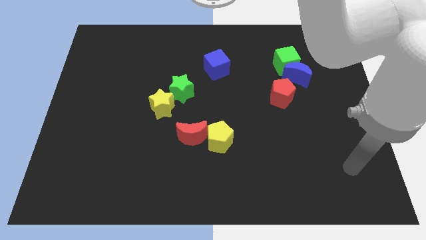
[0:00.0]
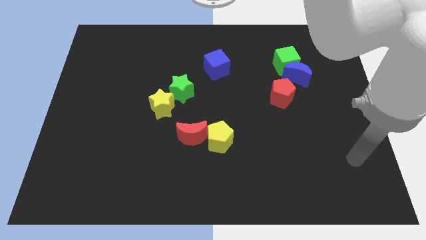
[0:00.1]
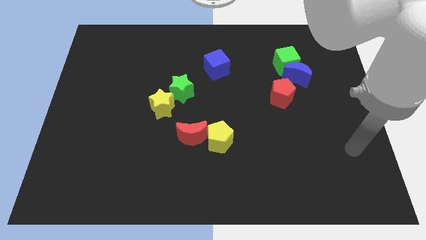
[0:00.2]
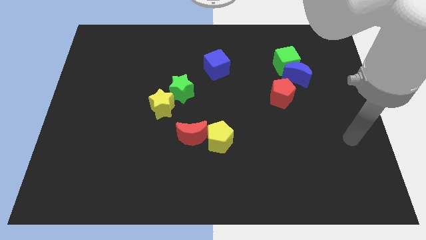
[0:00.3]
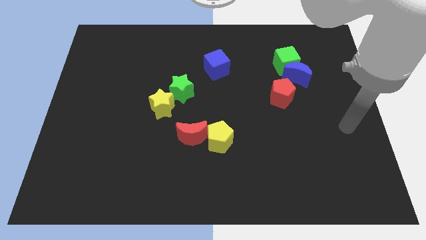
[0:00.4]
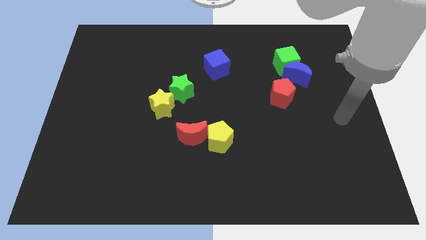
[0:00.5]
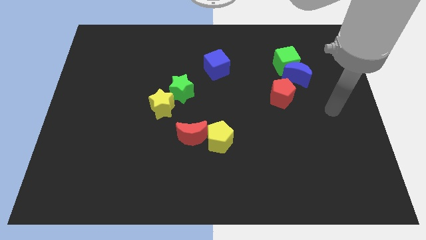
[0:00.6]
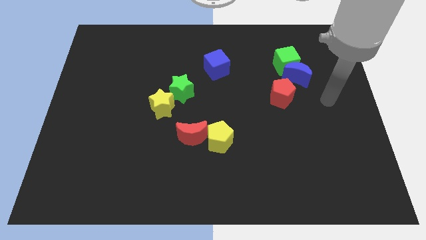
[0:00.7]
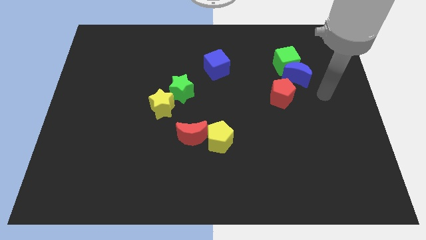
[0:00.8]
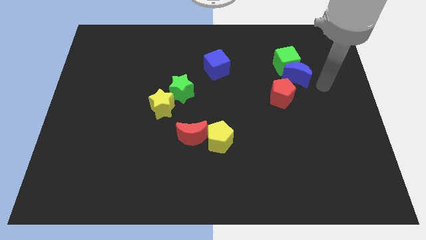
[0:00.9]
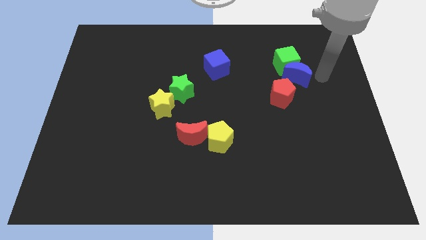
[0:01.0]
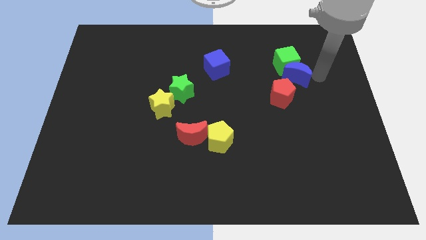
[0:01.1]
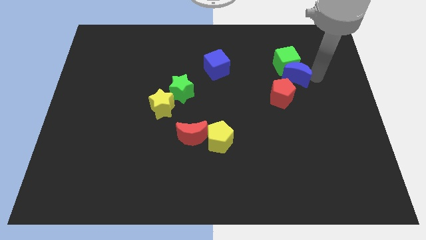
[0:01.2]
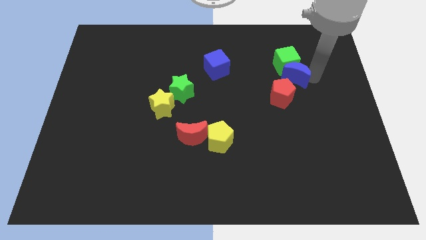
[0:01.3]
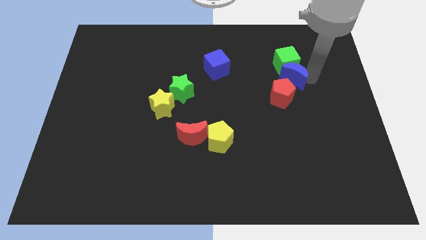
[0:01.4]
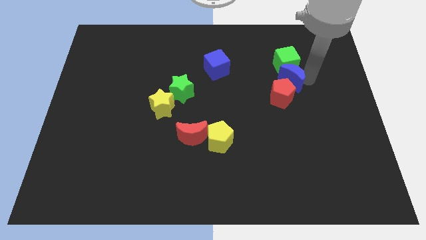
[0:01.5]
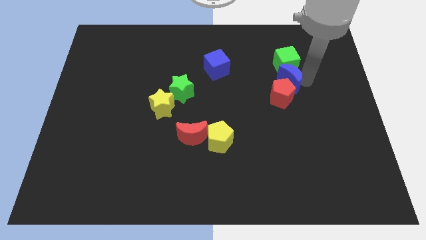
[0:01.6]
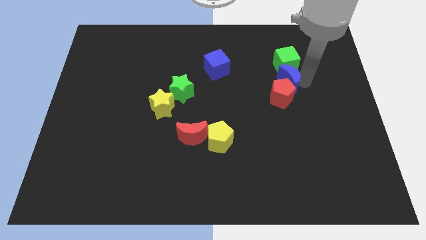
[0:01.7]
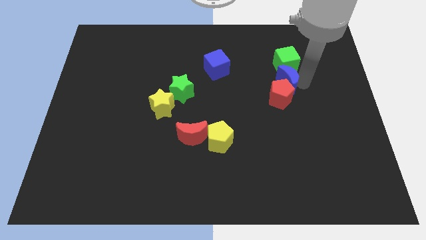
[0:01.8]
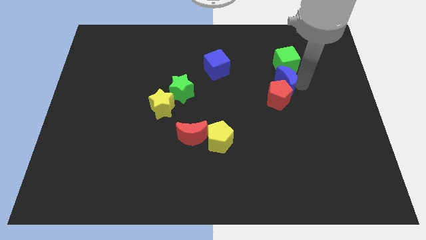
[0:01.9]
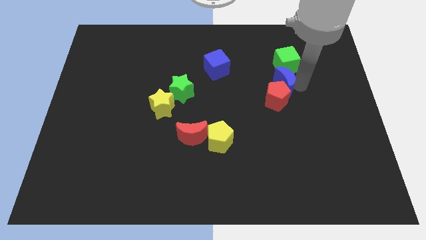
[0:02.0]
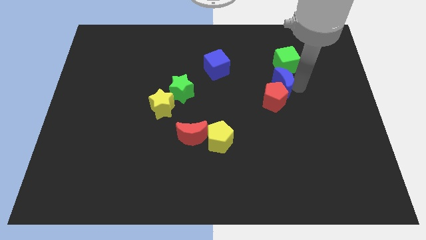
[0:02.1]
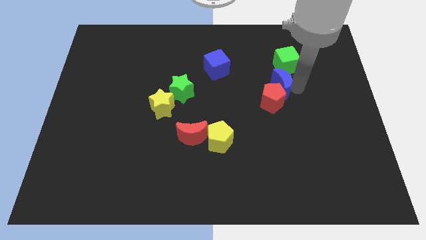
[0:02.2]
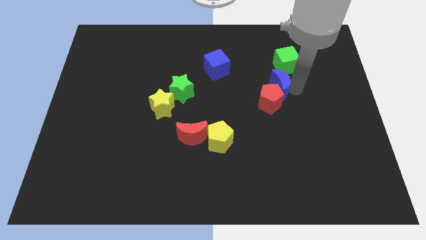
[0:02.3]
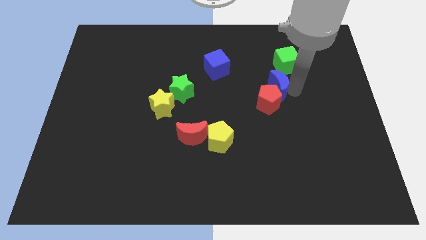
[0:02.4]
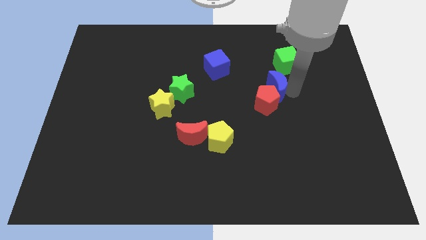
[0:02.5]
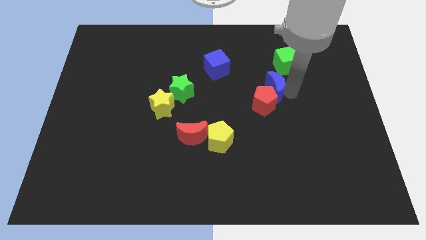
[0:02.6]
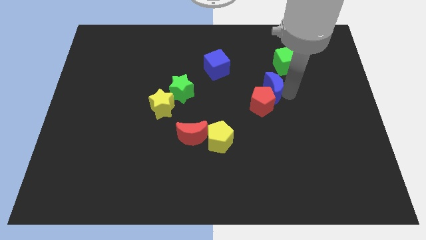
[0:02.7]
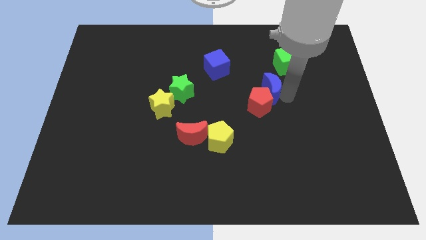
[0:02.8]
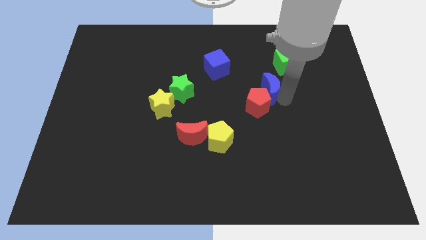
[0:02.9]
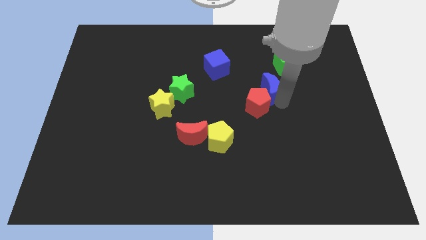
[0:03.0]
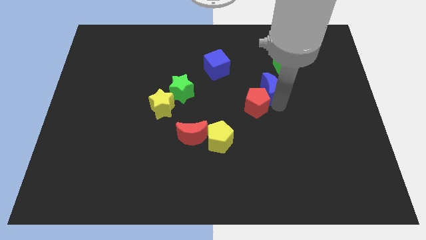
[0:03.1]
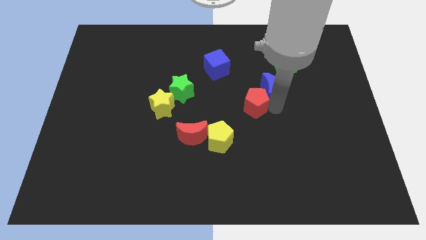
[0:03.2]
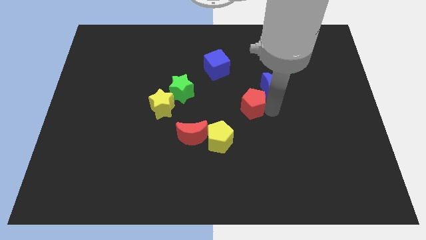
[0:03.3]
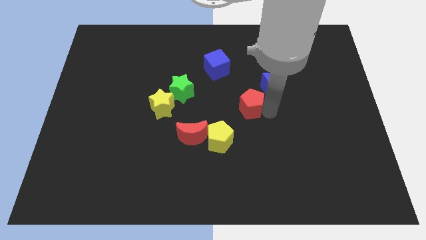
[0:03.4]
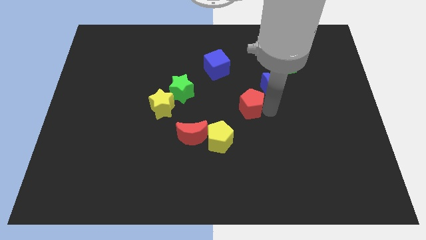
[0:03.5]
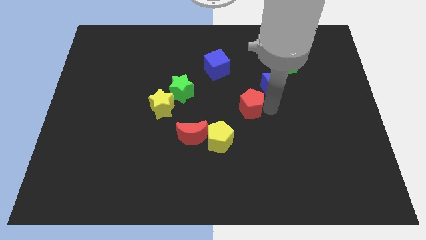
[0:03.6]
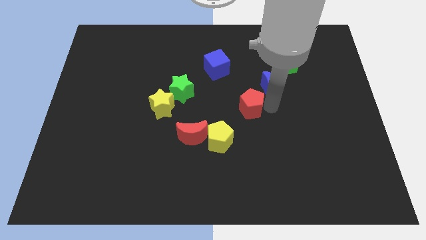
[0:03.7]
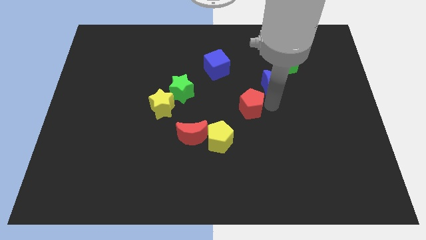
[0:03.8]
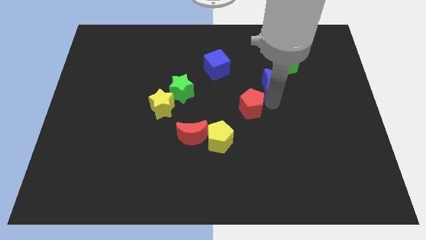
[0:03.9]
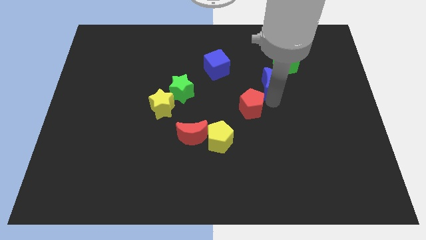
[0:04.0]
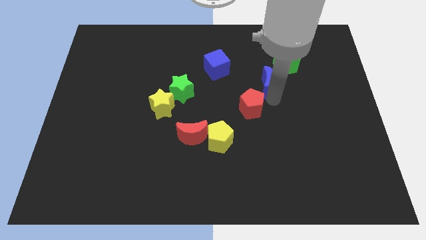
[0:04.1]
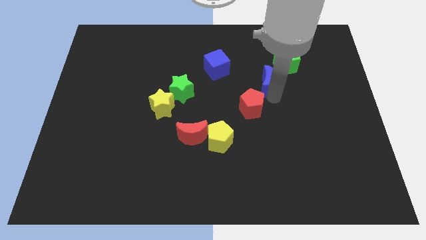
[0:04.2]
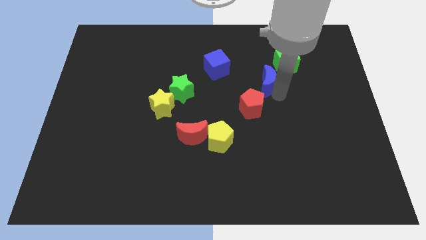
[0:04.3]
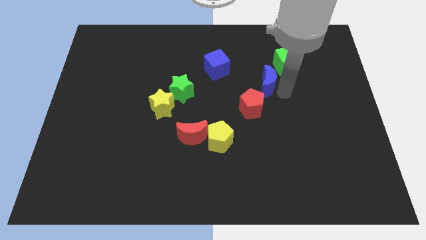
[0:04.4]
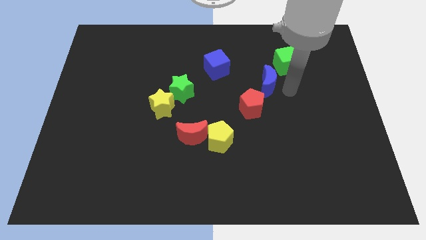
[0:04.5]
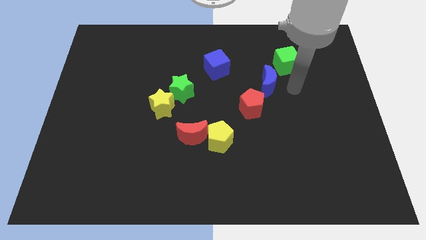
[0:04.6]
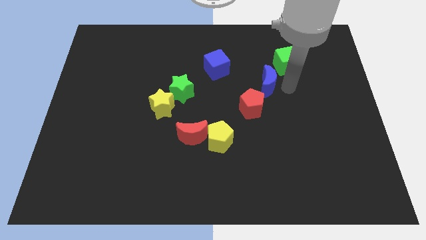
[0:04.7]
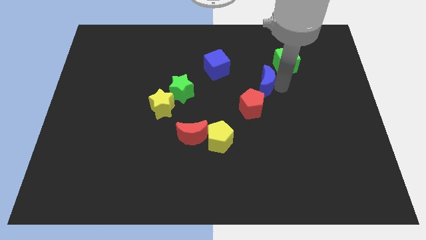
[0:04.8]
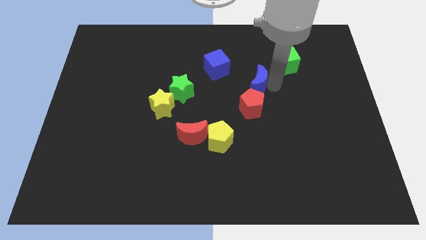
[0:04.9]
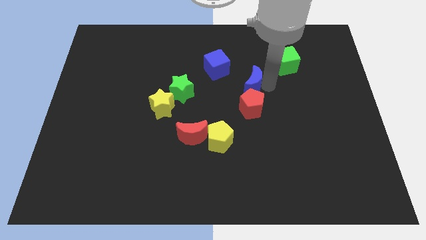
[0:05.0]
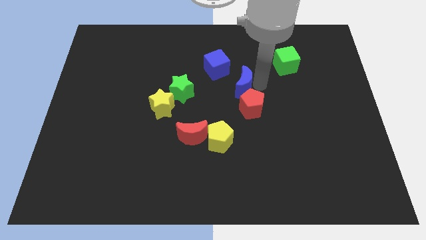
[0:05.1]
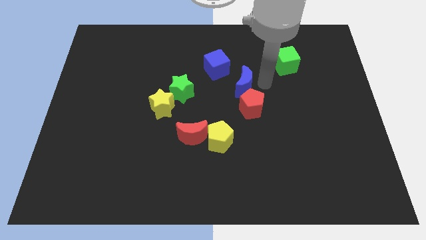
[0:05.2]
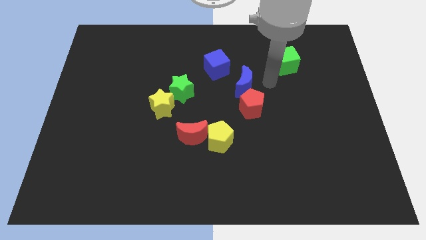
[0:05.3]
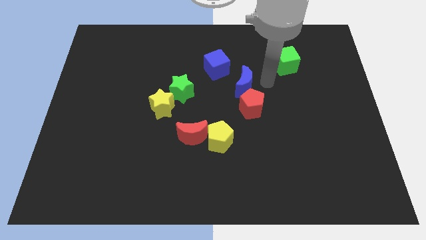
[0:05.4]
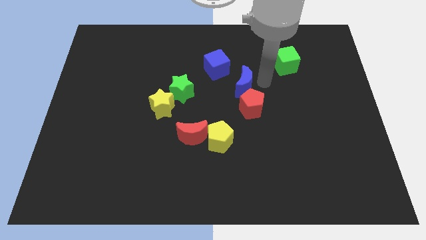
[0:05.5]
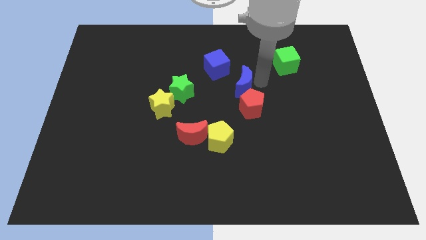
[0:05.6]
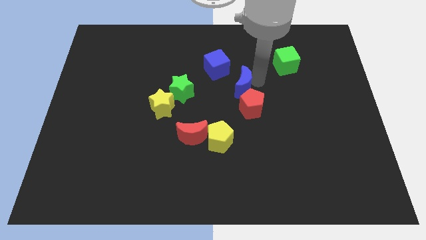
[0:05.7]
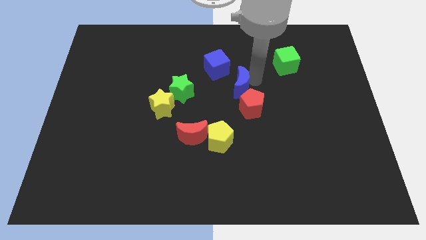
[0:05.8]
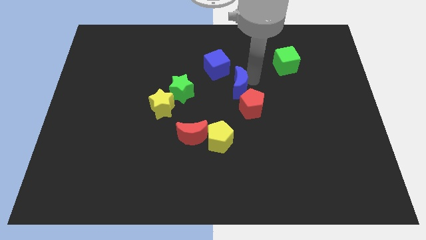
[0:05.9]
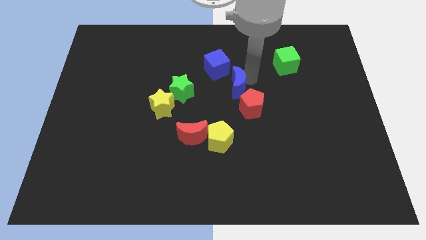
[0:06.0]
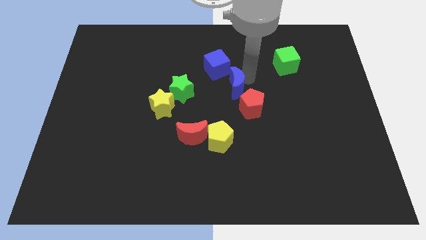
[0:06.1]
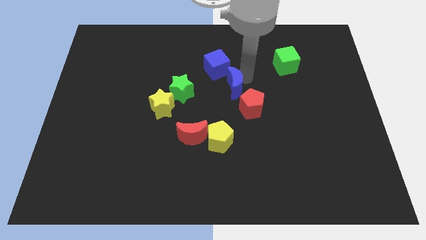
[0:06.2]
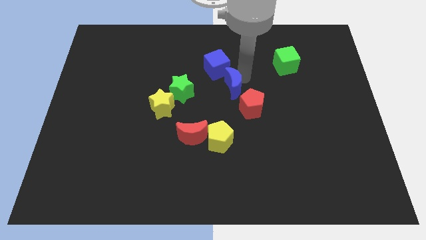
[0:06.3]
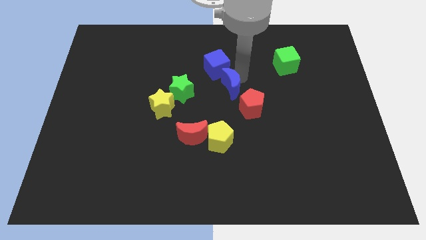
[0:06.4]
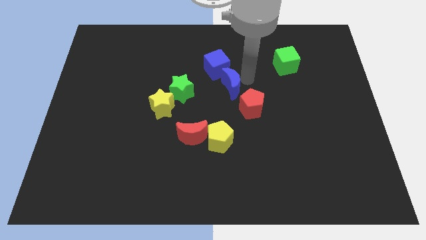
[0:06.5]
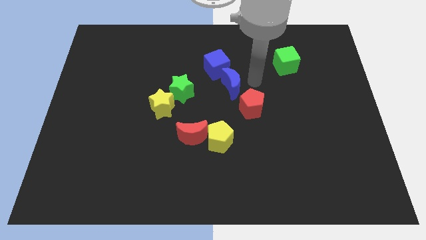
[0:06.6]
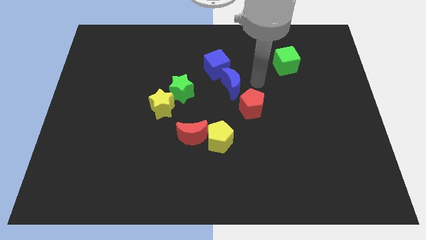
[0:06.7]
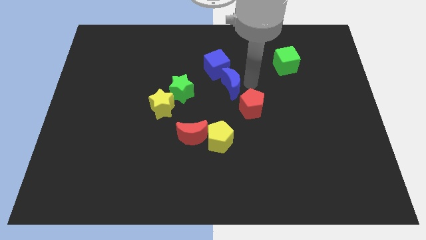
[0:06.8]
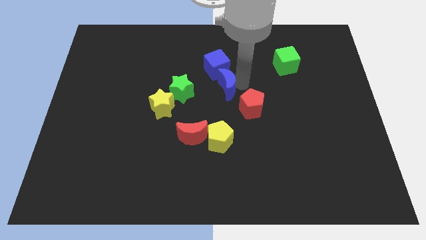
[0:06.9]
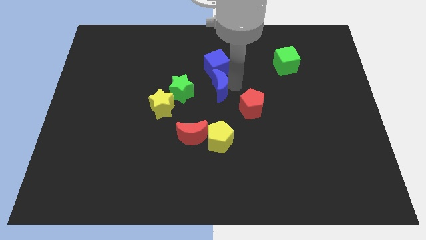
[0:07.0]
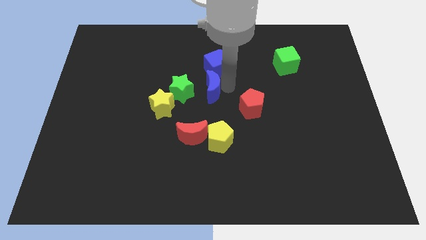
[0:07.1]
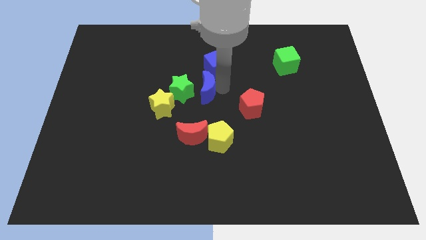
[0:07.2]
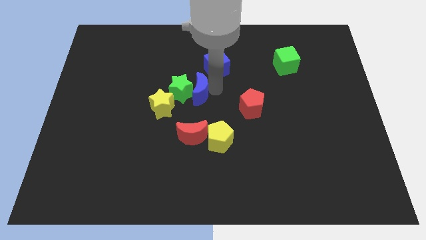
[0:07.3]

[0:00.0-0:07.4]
move the blue moon close to the green star

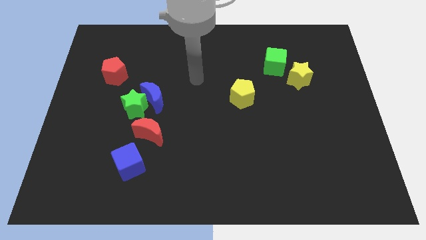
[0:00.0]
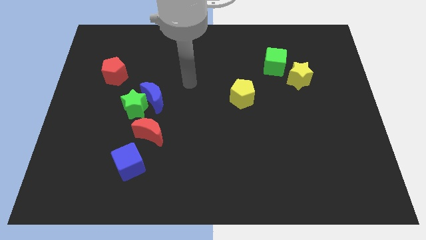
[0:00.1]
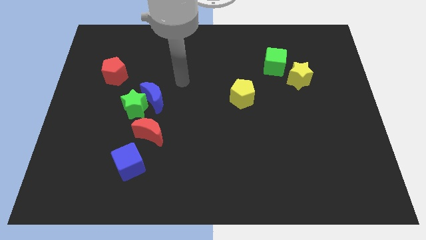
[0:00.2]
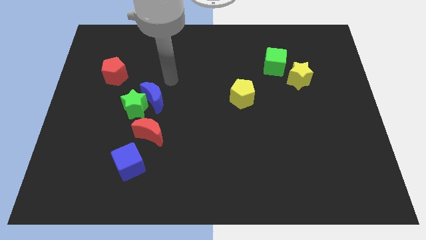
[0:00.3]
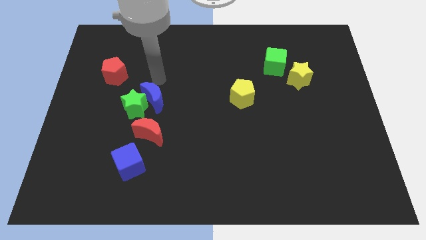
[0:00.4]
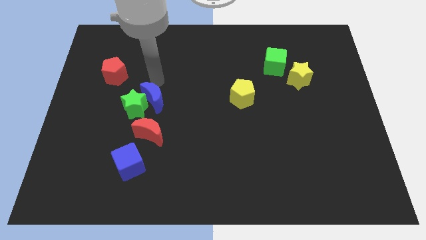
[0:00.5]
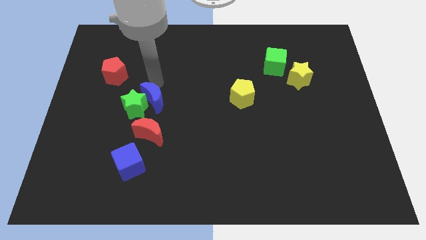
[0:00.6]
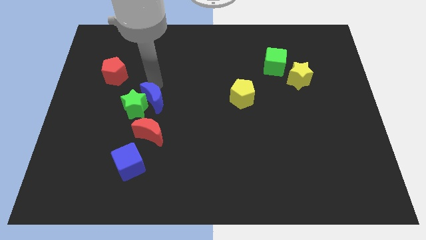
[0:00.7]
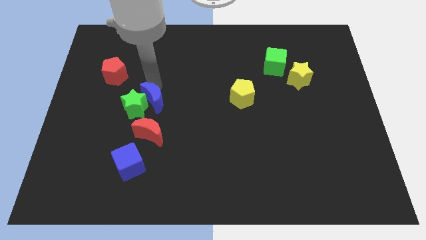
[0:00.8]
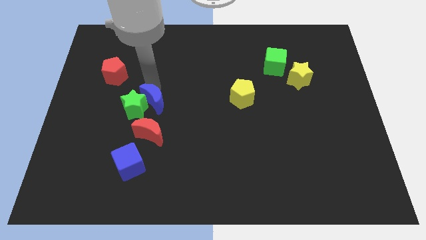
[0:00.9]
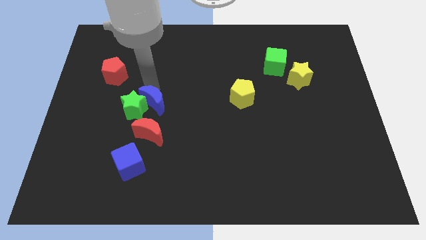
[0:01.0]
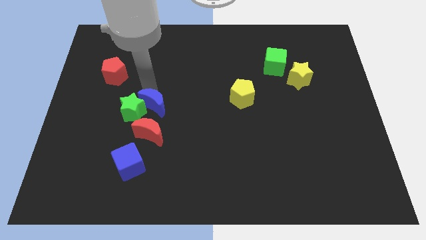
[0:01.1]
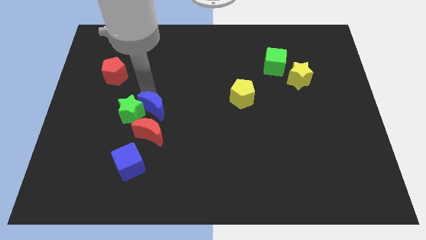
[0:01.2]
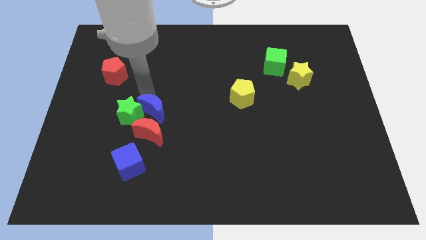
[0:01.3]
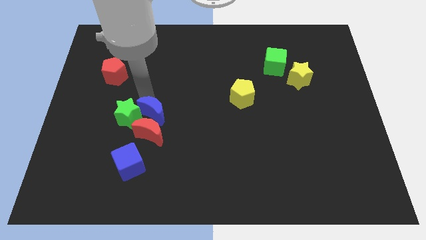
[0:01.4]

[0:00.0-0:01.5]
move the blue moon next to the red moon
